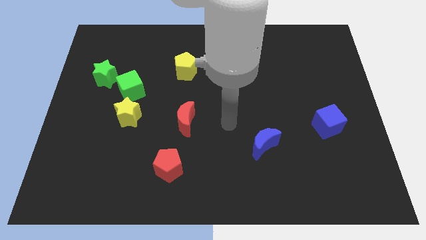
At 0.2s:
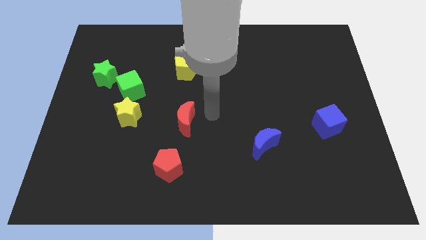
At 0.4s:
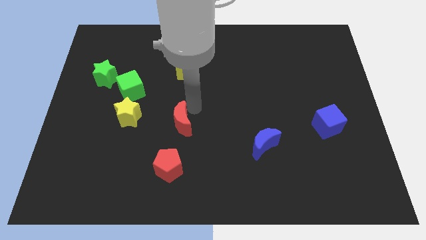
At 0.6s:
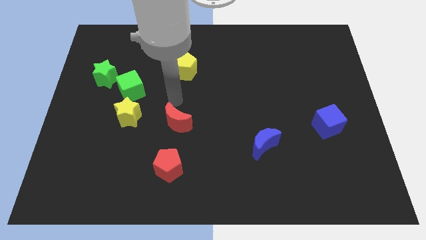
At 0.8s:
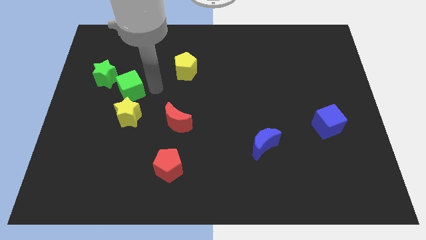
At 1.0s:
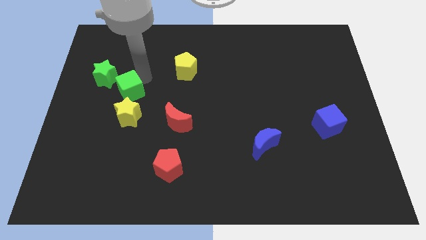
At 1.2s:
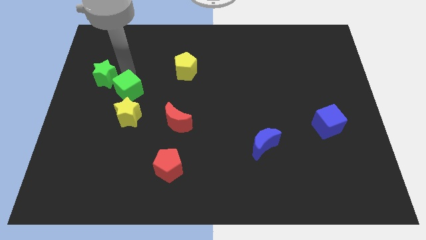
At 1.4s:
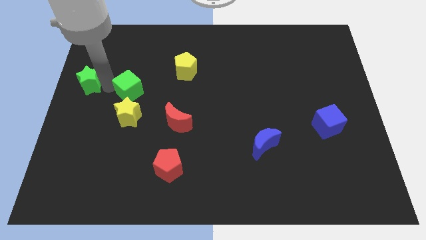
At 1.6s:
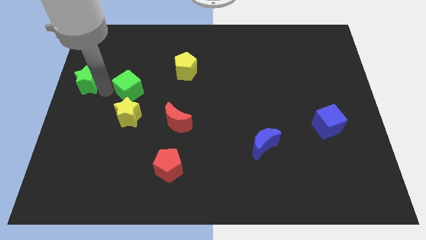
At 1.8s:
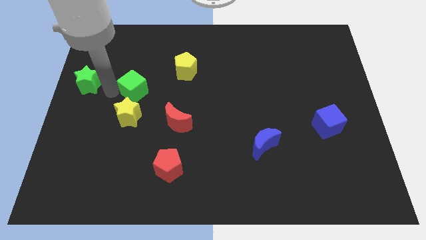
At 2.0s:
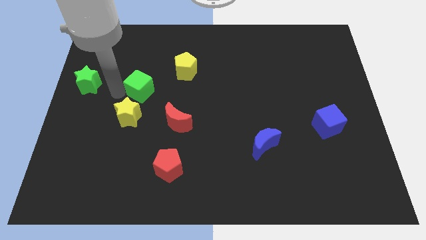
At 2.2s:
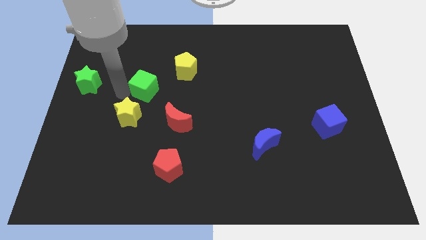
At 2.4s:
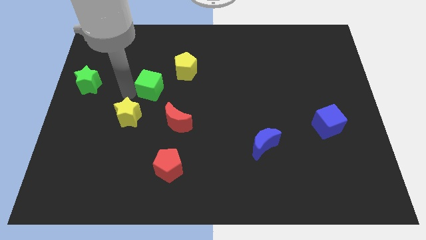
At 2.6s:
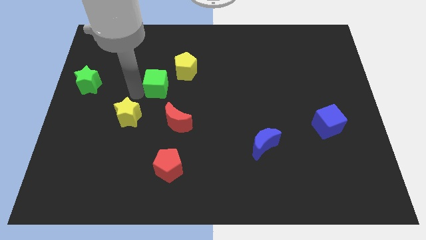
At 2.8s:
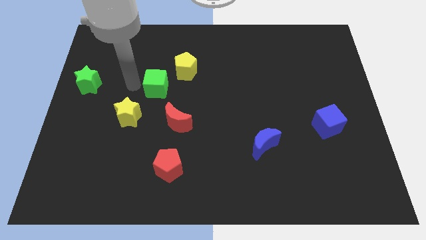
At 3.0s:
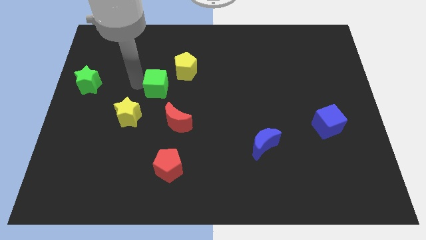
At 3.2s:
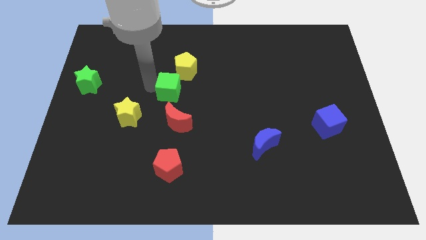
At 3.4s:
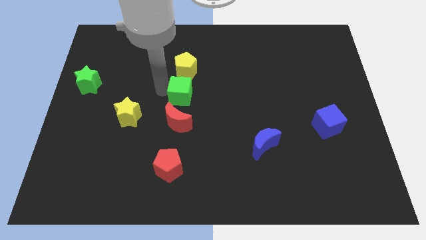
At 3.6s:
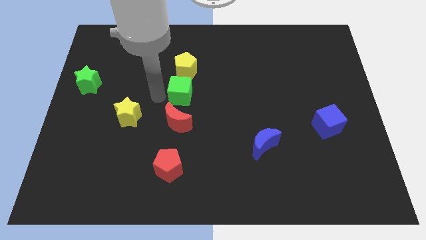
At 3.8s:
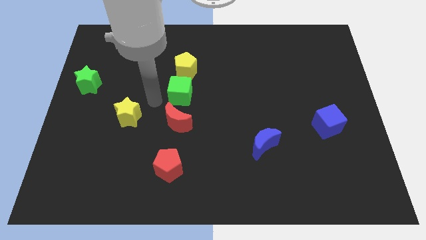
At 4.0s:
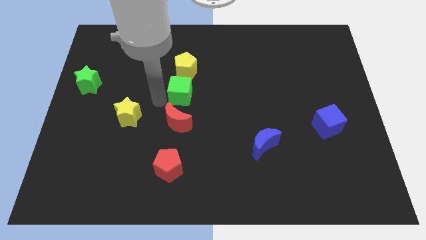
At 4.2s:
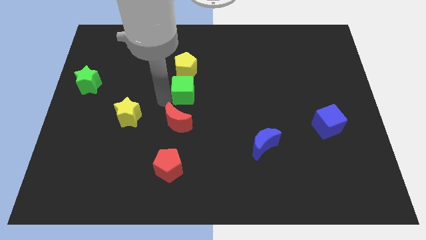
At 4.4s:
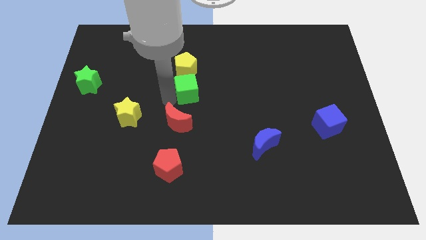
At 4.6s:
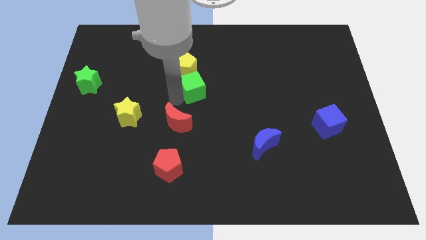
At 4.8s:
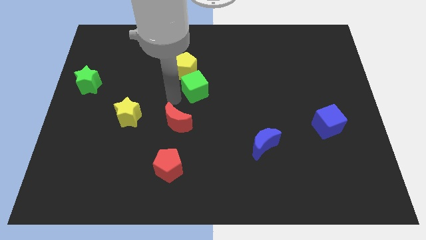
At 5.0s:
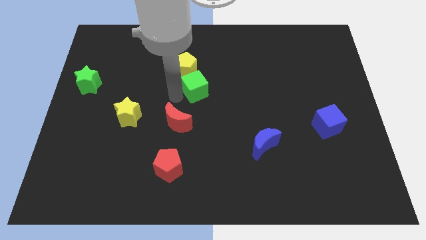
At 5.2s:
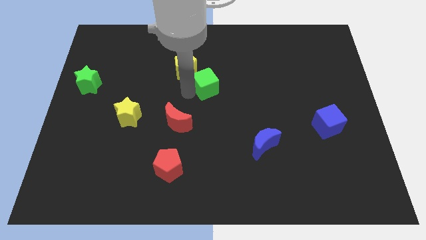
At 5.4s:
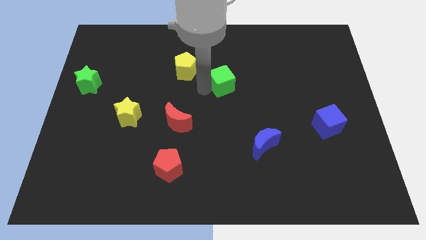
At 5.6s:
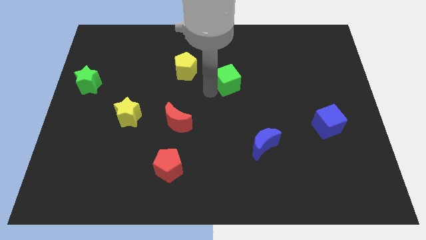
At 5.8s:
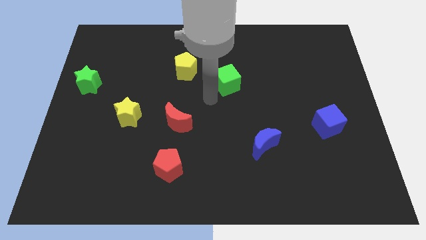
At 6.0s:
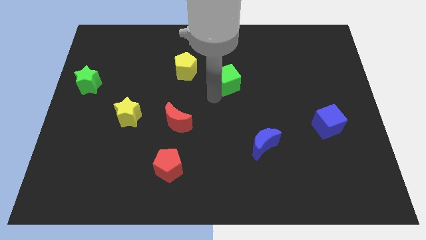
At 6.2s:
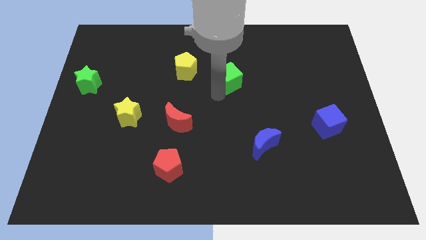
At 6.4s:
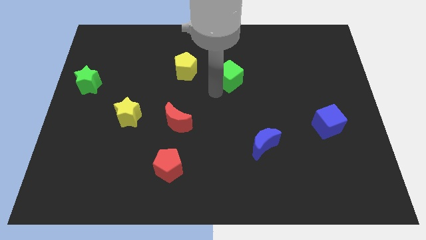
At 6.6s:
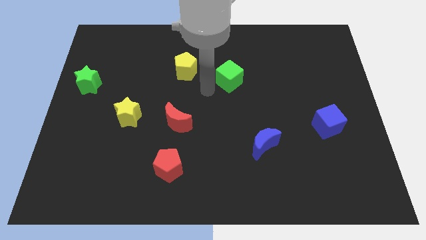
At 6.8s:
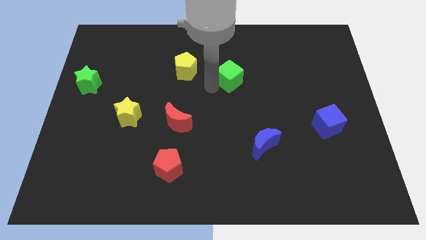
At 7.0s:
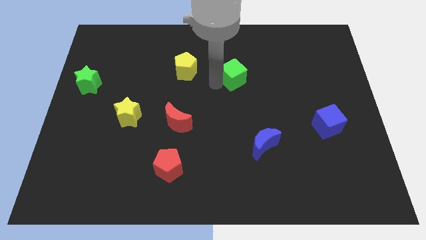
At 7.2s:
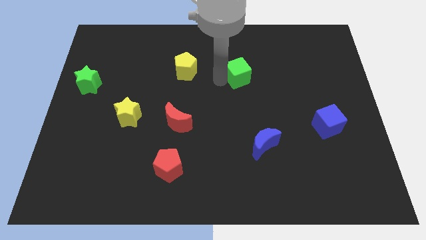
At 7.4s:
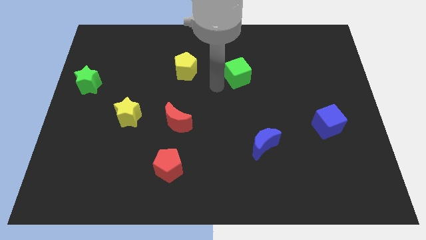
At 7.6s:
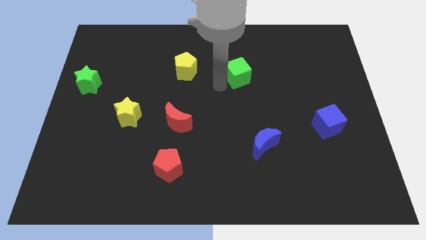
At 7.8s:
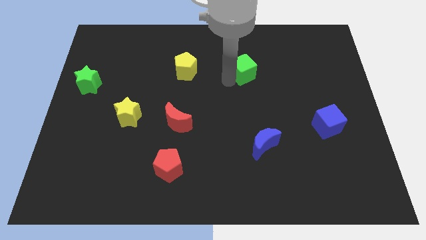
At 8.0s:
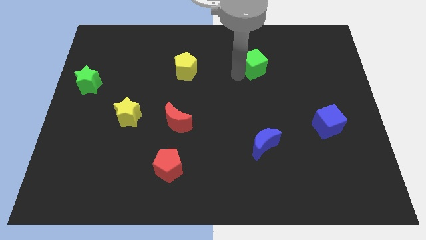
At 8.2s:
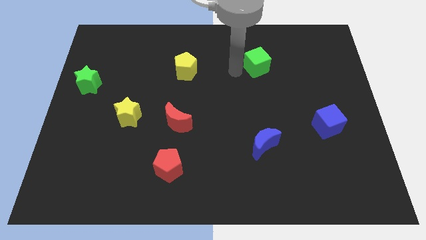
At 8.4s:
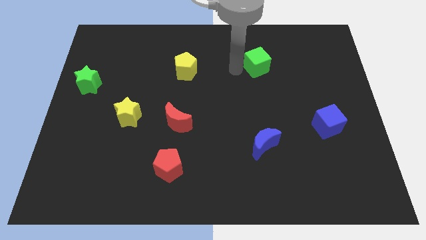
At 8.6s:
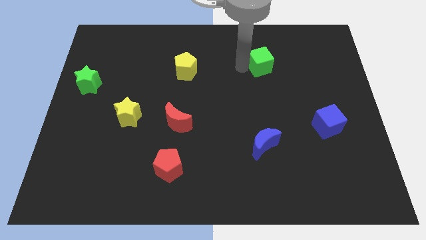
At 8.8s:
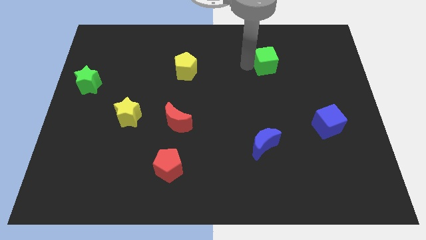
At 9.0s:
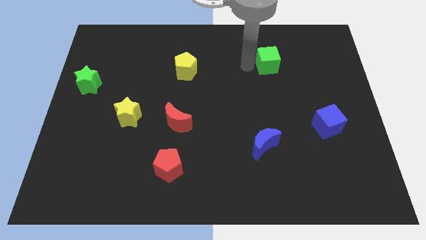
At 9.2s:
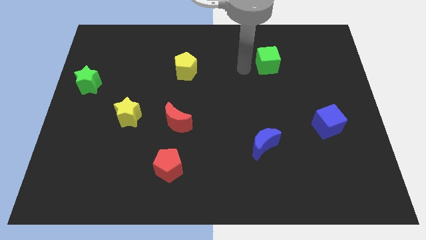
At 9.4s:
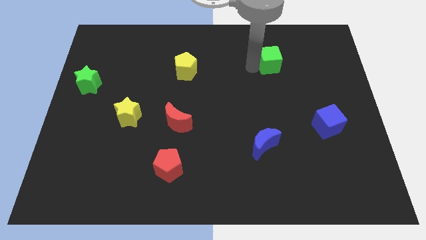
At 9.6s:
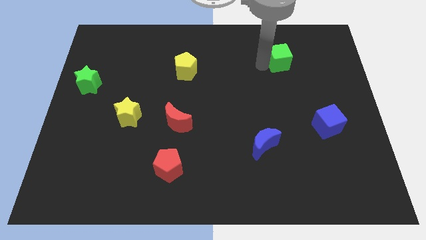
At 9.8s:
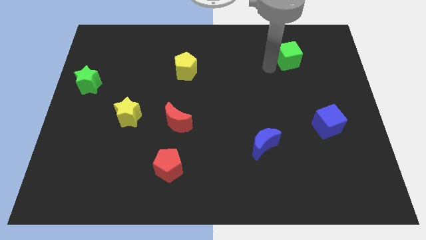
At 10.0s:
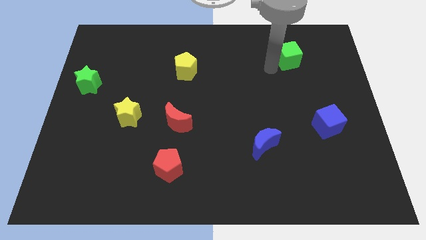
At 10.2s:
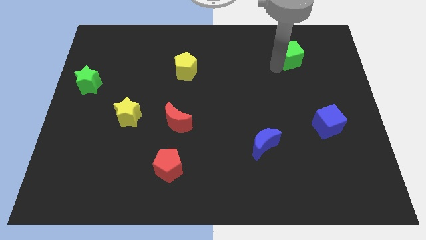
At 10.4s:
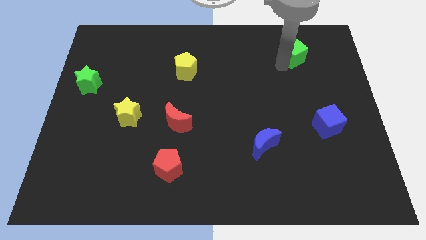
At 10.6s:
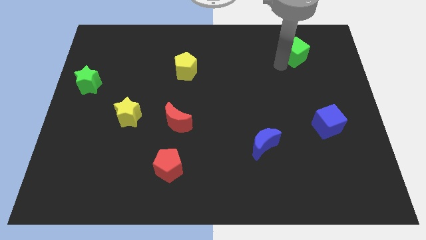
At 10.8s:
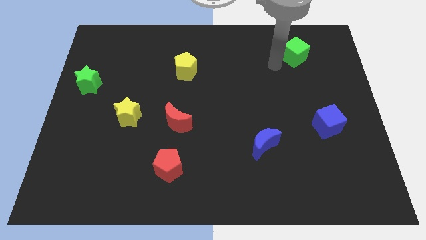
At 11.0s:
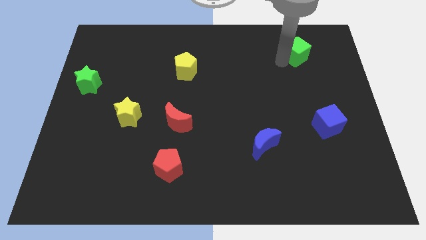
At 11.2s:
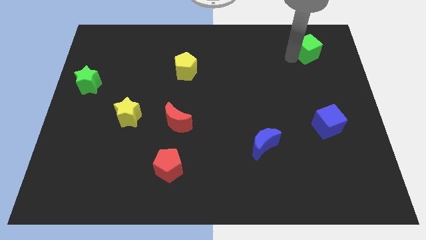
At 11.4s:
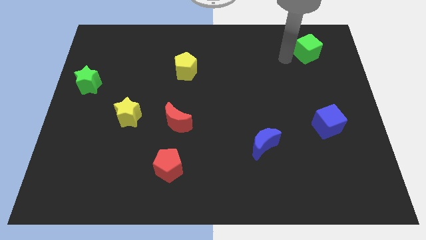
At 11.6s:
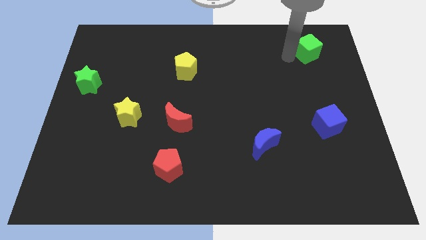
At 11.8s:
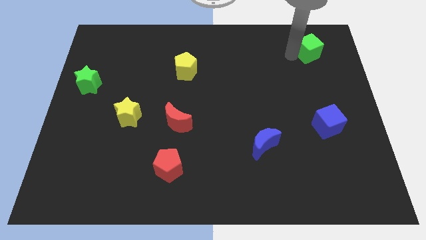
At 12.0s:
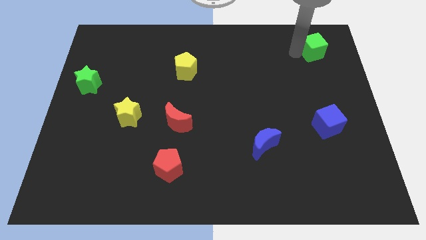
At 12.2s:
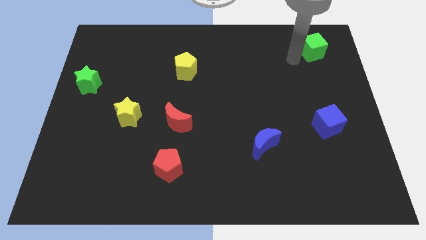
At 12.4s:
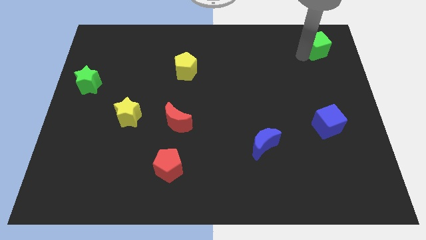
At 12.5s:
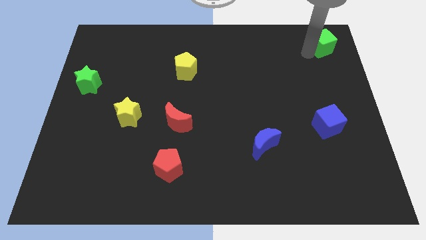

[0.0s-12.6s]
put the green cube to the top right

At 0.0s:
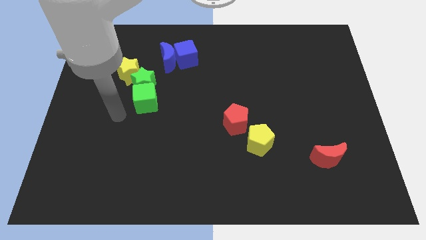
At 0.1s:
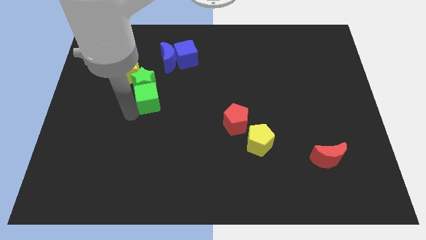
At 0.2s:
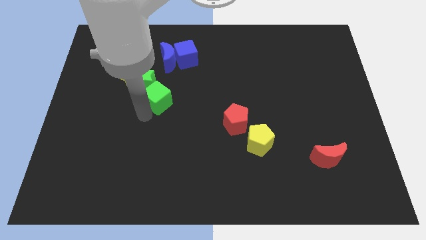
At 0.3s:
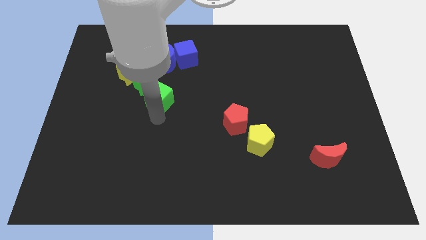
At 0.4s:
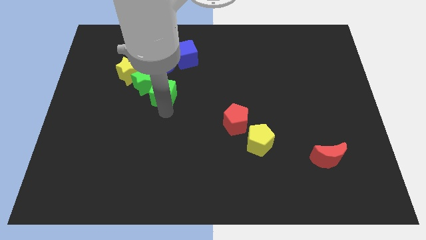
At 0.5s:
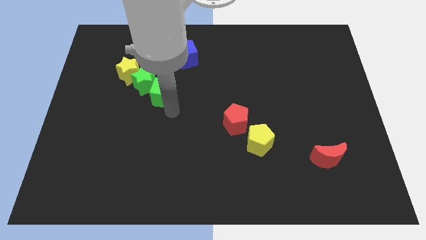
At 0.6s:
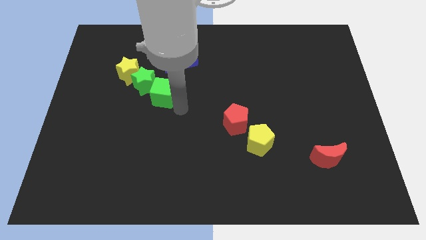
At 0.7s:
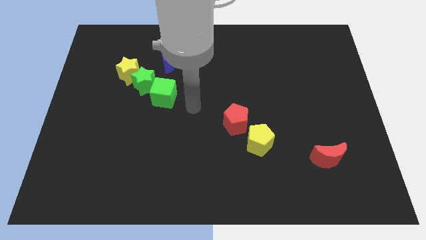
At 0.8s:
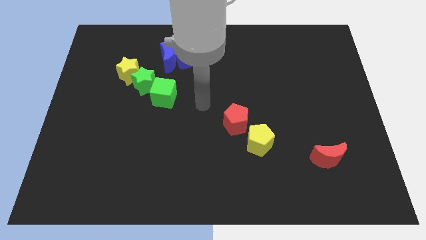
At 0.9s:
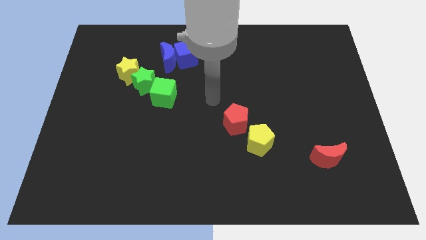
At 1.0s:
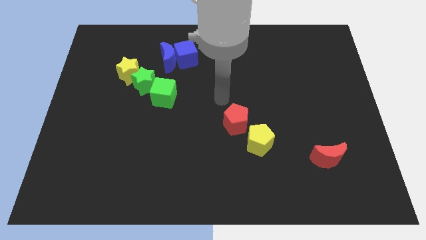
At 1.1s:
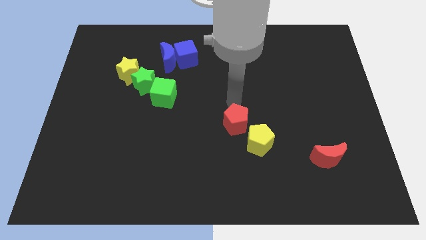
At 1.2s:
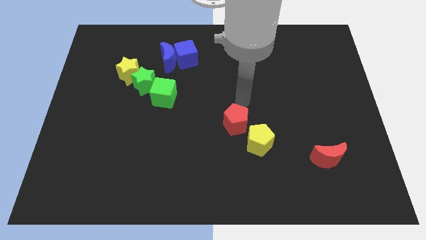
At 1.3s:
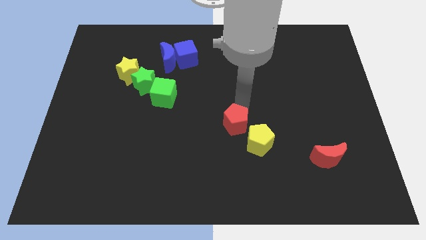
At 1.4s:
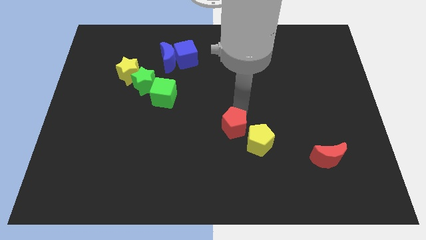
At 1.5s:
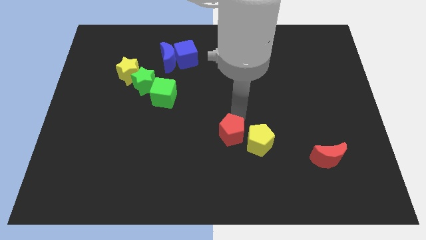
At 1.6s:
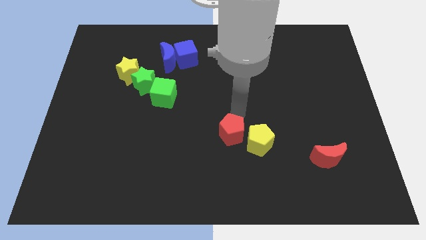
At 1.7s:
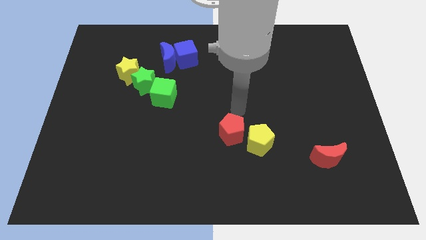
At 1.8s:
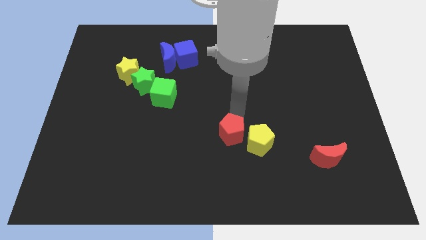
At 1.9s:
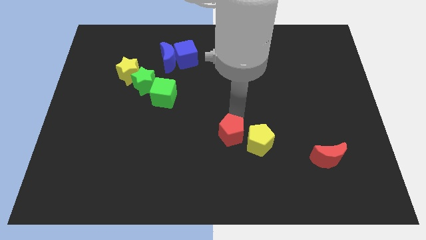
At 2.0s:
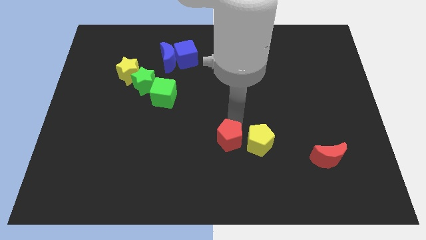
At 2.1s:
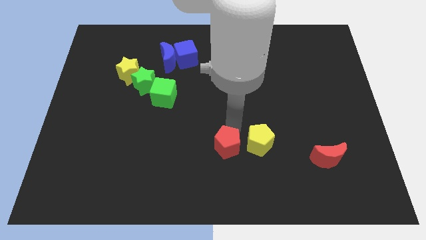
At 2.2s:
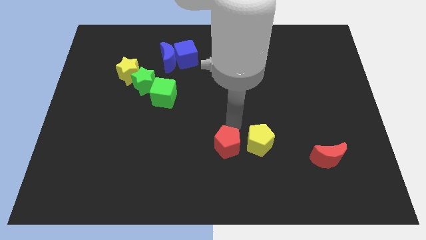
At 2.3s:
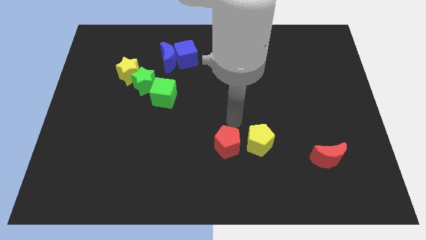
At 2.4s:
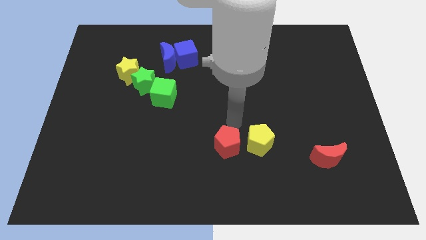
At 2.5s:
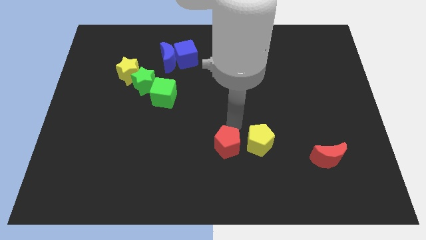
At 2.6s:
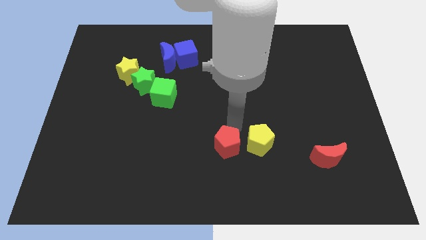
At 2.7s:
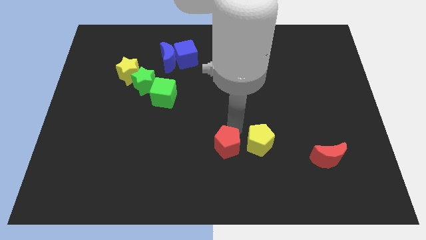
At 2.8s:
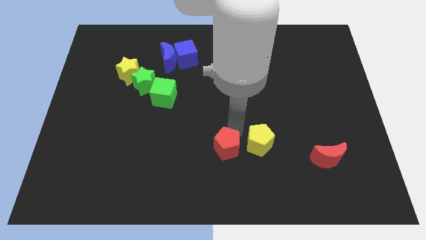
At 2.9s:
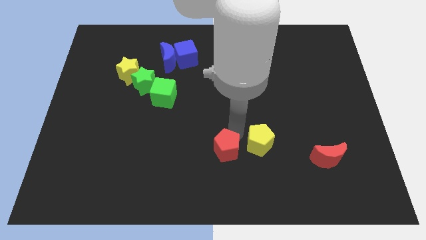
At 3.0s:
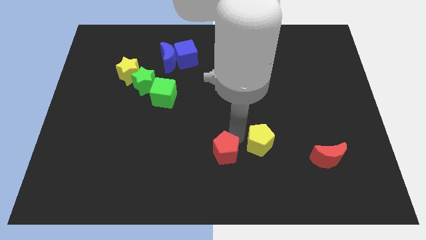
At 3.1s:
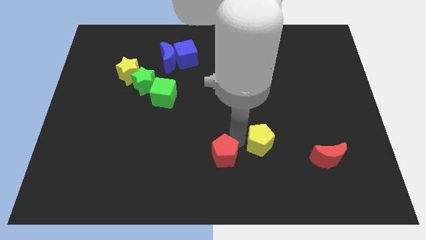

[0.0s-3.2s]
move the red pentagon to the bottom side
